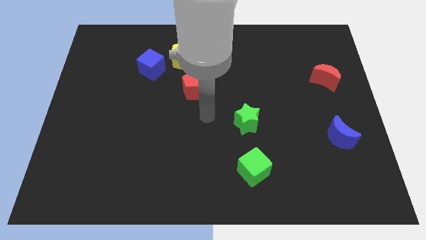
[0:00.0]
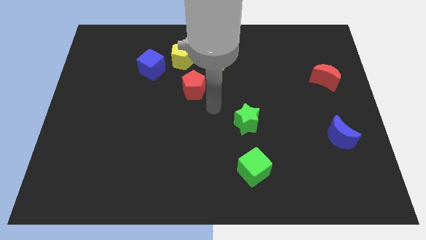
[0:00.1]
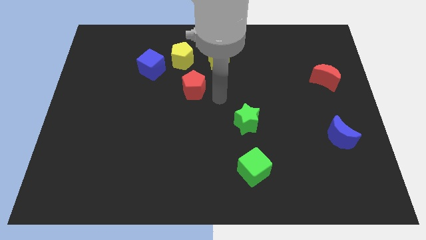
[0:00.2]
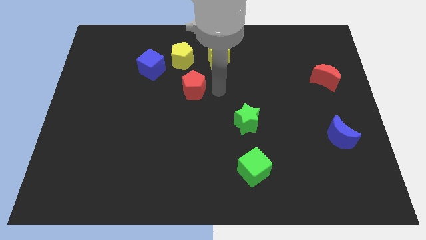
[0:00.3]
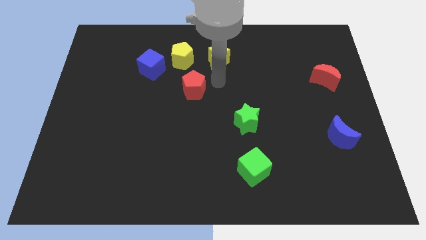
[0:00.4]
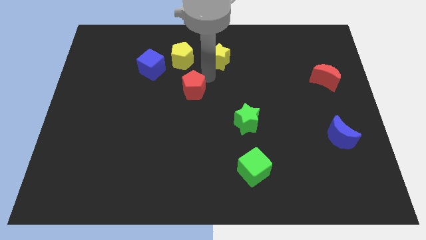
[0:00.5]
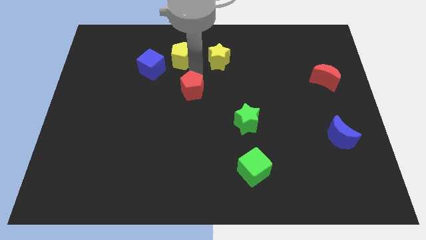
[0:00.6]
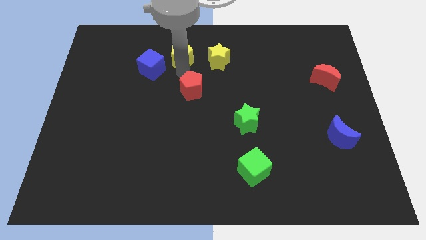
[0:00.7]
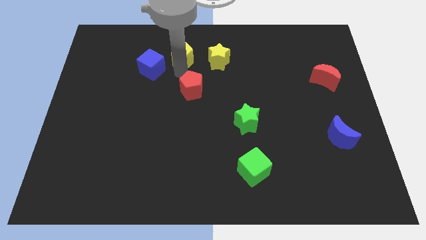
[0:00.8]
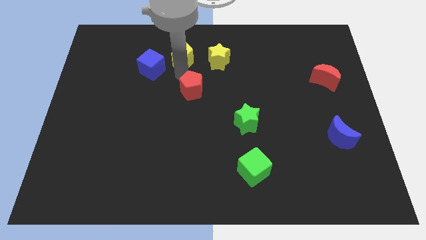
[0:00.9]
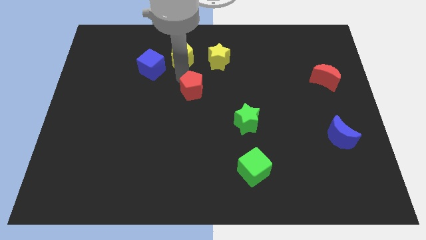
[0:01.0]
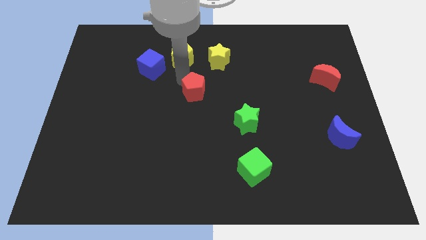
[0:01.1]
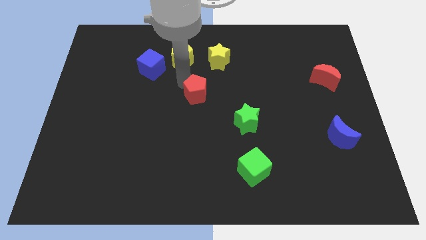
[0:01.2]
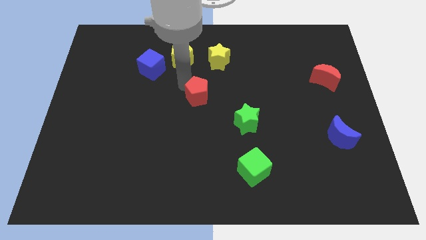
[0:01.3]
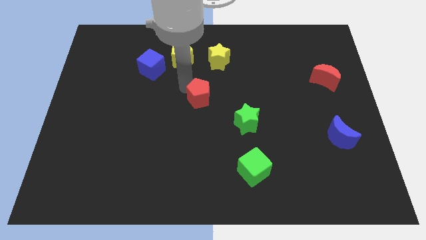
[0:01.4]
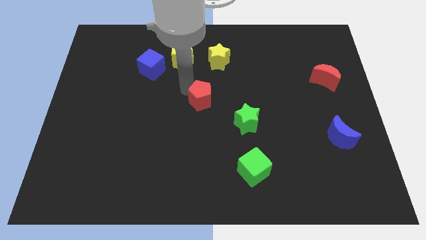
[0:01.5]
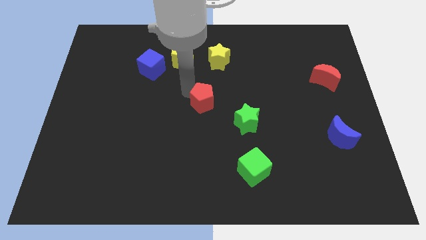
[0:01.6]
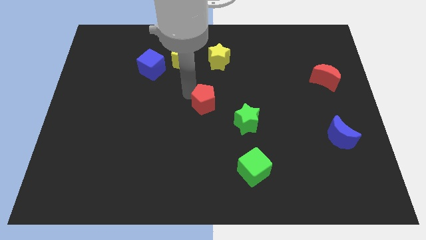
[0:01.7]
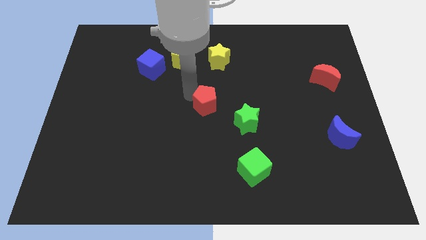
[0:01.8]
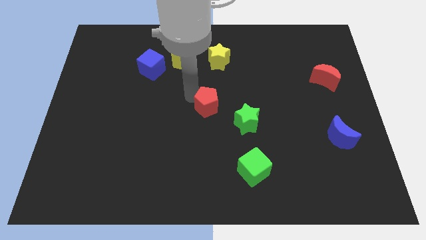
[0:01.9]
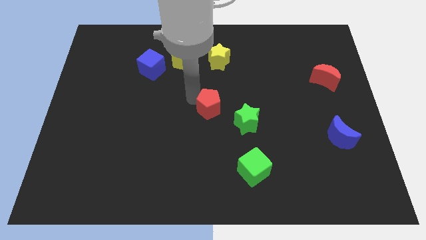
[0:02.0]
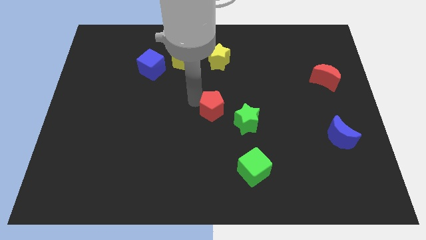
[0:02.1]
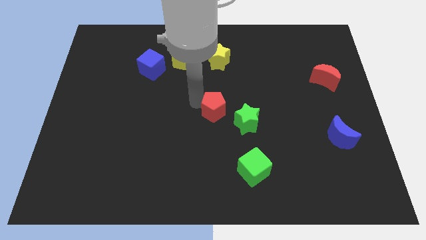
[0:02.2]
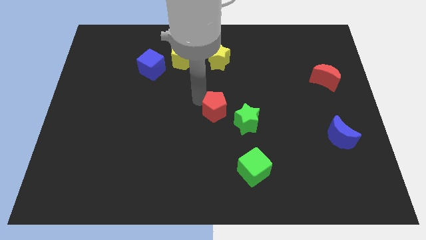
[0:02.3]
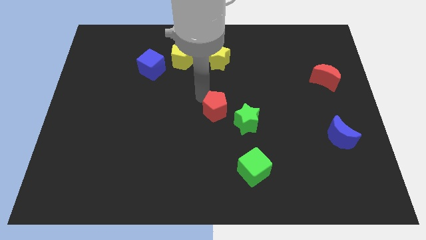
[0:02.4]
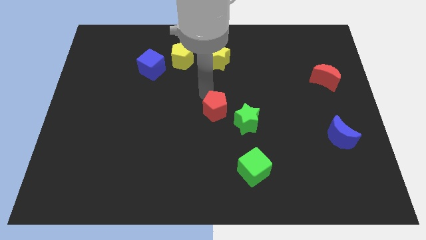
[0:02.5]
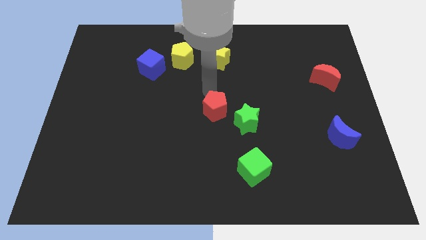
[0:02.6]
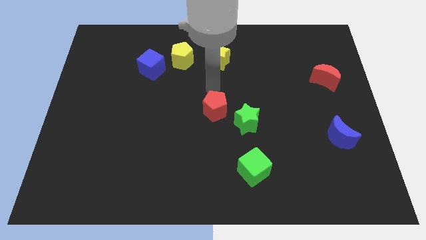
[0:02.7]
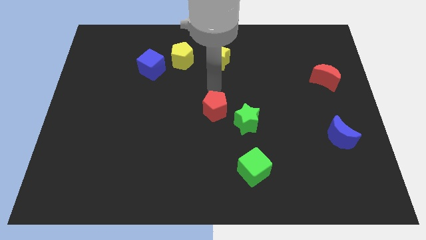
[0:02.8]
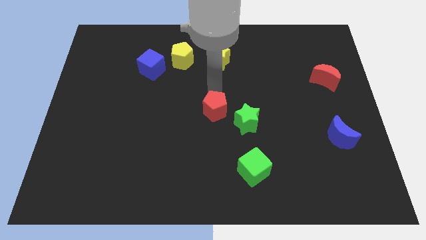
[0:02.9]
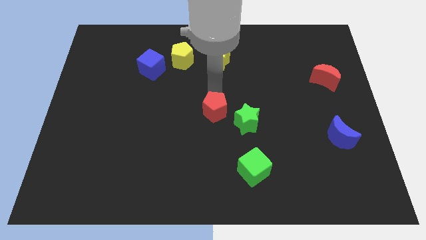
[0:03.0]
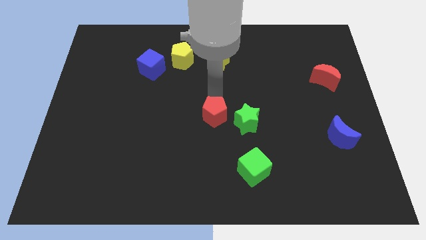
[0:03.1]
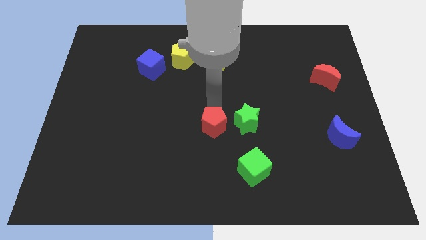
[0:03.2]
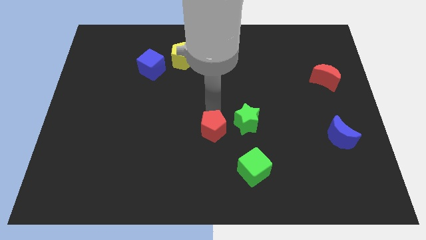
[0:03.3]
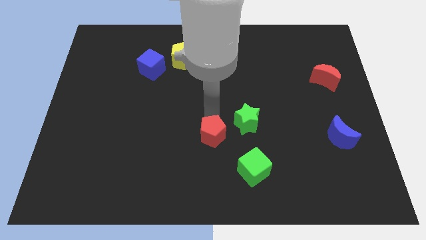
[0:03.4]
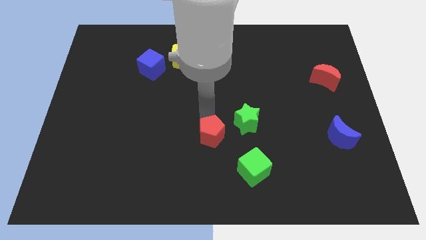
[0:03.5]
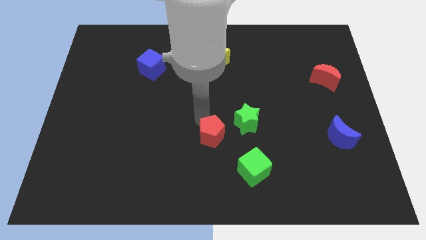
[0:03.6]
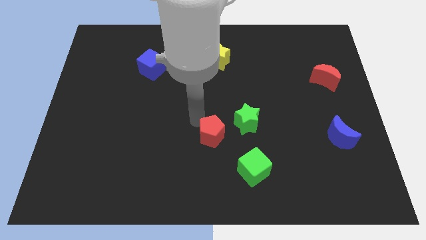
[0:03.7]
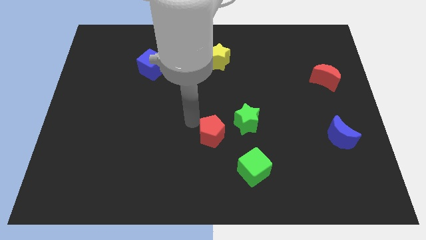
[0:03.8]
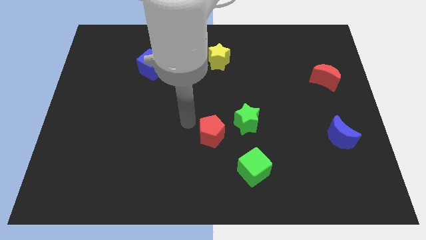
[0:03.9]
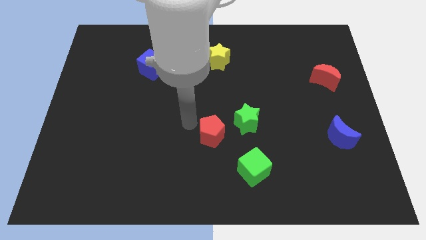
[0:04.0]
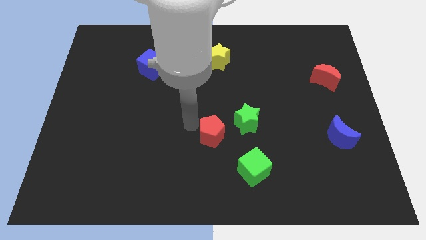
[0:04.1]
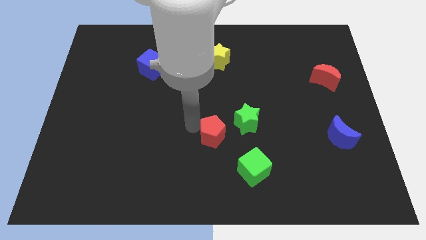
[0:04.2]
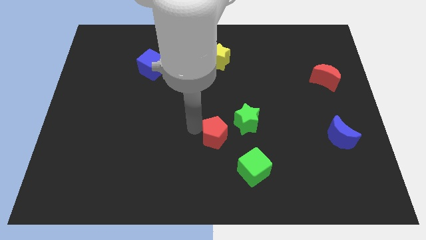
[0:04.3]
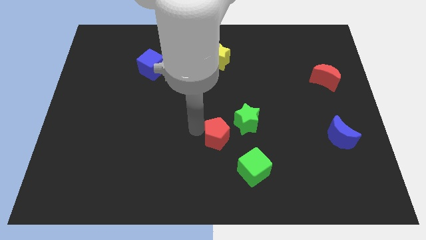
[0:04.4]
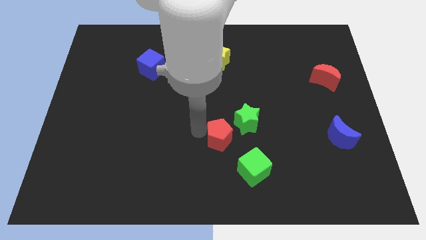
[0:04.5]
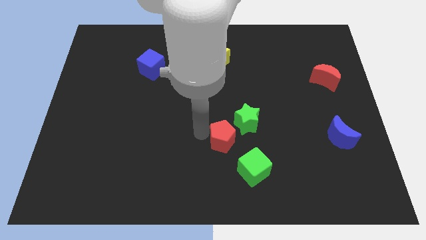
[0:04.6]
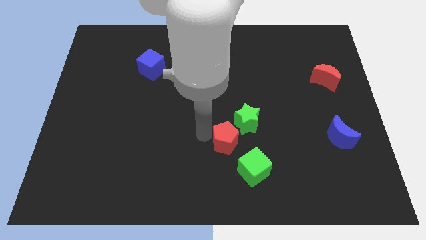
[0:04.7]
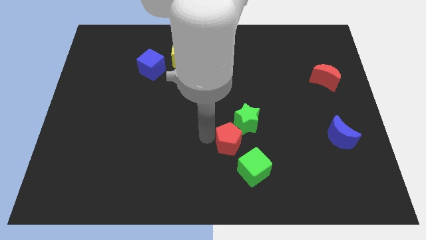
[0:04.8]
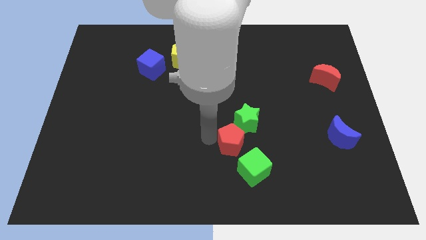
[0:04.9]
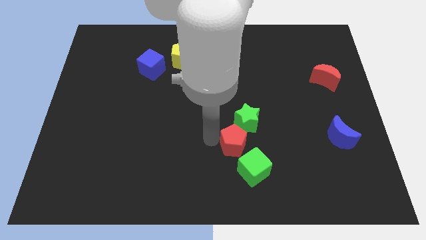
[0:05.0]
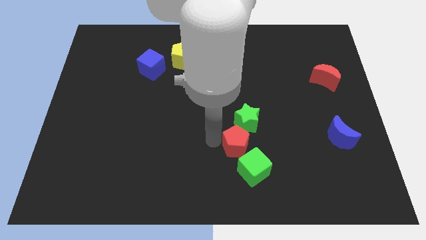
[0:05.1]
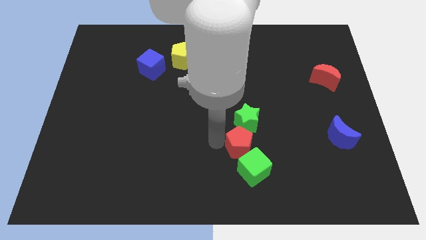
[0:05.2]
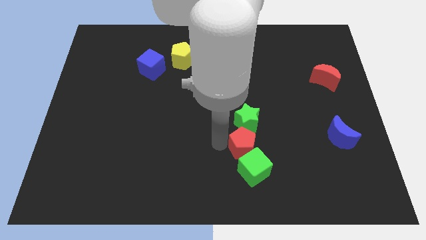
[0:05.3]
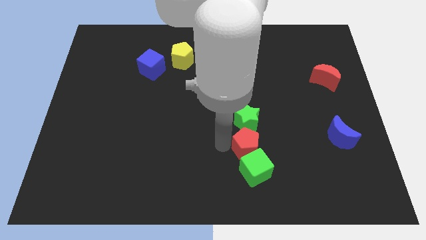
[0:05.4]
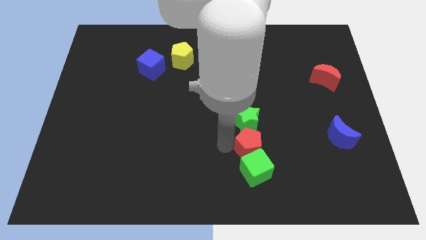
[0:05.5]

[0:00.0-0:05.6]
push the red pentagon down and to the right

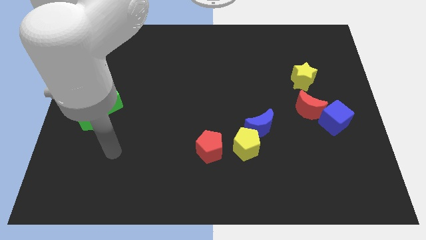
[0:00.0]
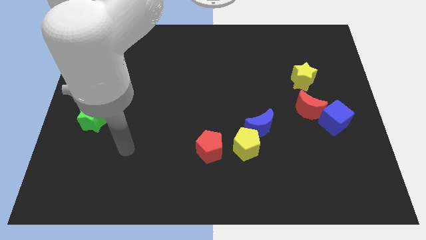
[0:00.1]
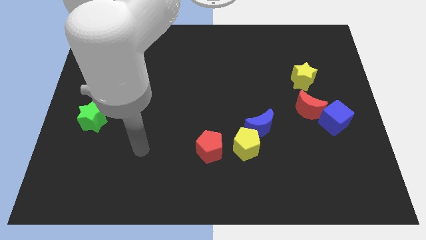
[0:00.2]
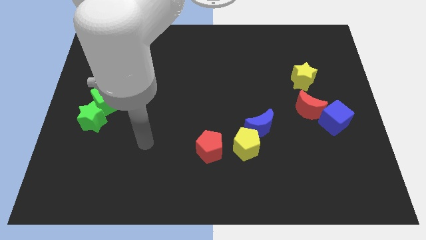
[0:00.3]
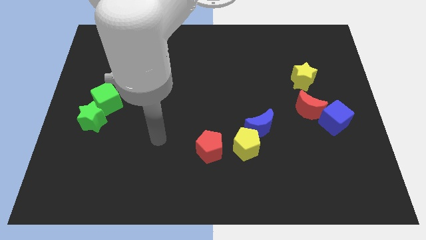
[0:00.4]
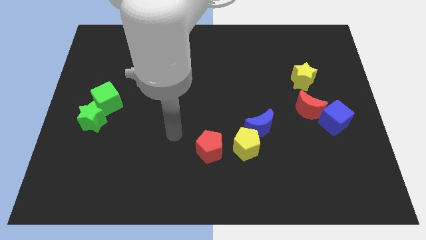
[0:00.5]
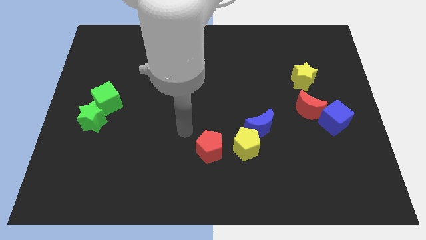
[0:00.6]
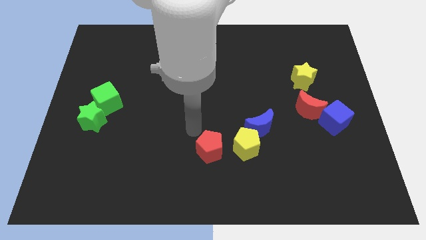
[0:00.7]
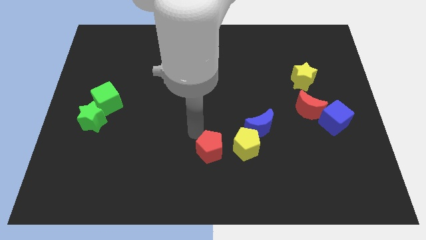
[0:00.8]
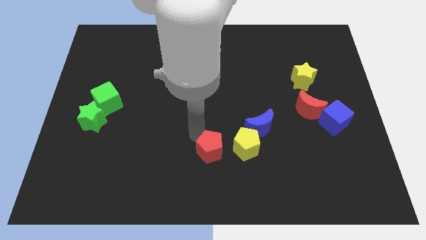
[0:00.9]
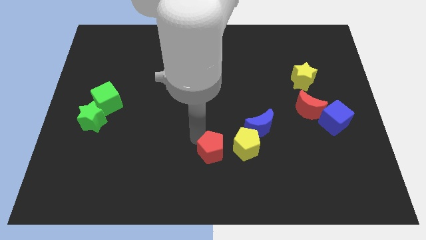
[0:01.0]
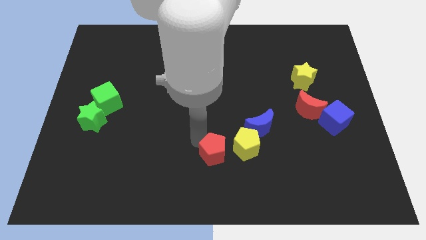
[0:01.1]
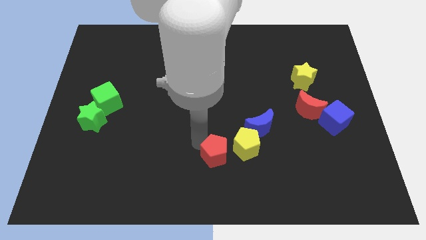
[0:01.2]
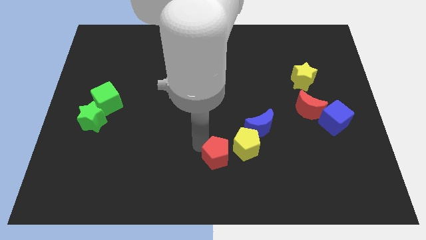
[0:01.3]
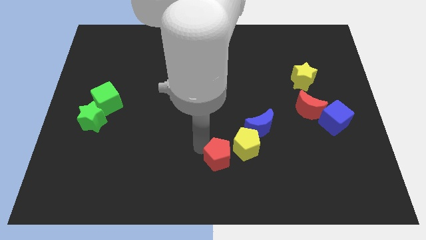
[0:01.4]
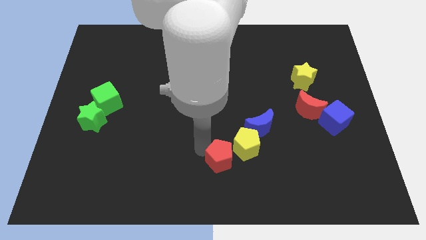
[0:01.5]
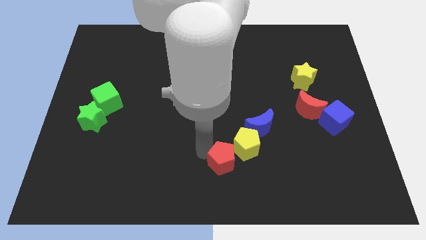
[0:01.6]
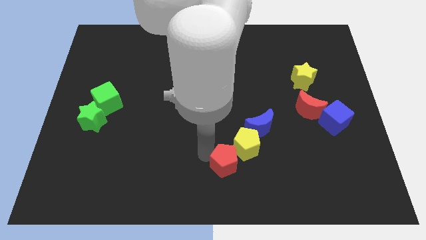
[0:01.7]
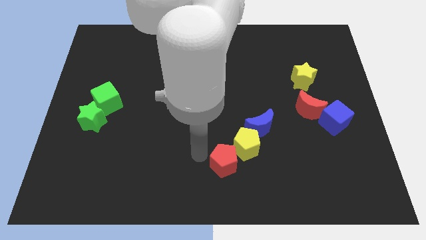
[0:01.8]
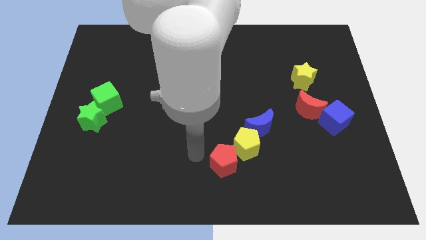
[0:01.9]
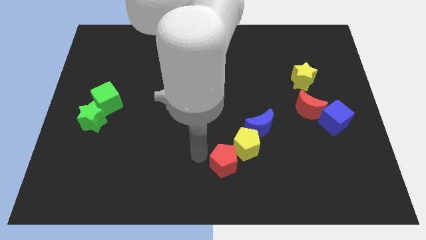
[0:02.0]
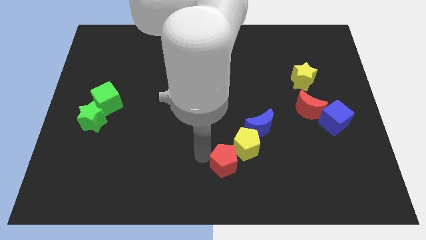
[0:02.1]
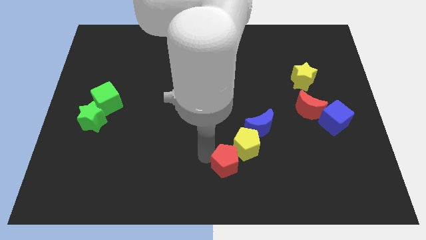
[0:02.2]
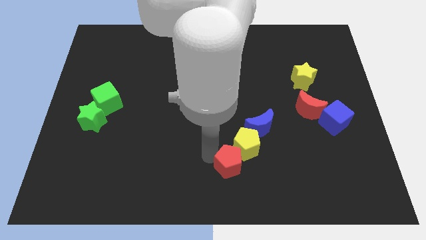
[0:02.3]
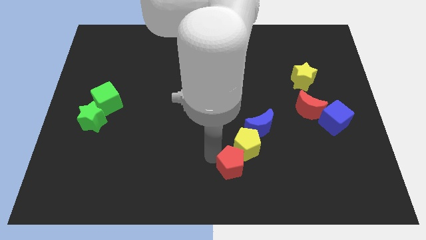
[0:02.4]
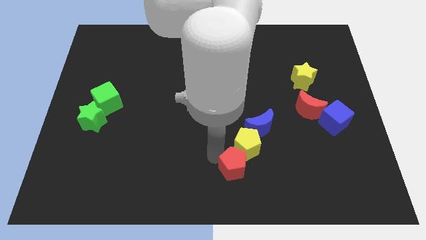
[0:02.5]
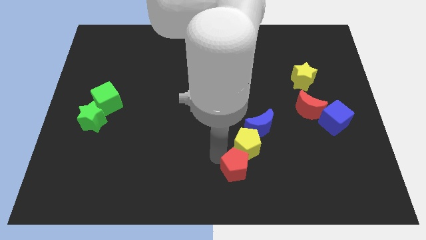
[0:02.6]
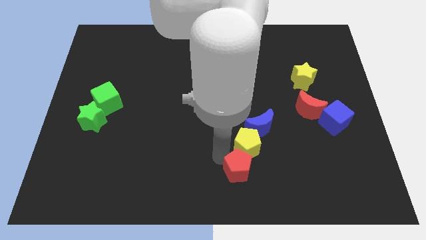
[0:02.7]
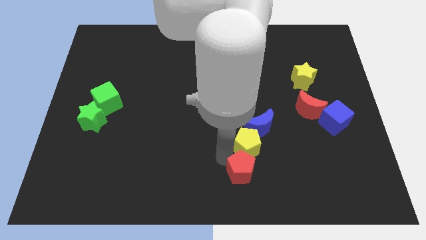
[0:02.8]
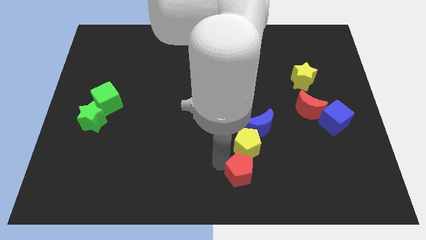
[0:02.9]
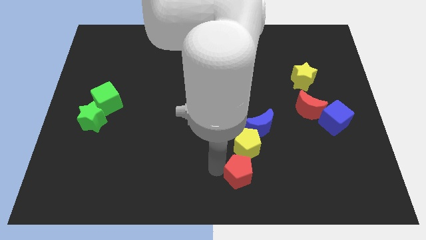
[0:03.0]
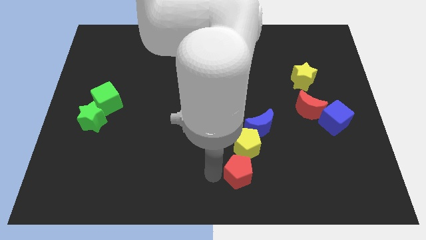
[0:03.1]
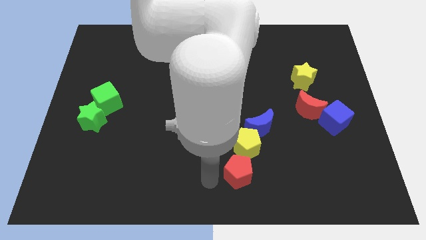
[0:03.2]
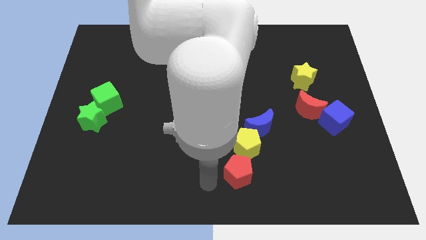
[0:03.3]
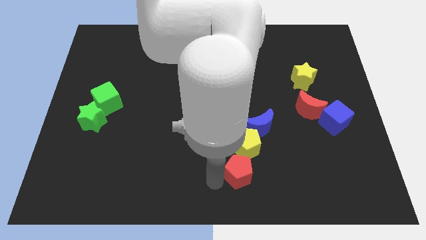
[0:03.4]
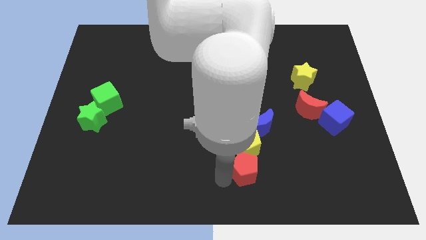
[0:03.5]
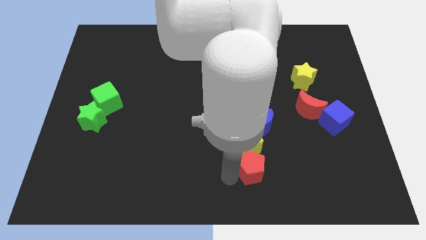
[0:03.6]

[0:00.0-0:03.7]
push the red pentagon a little bit right
